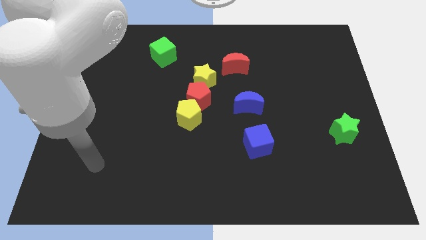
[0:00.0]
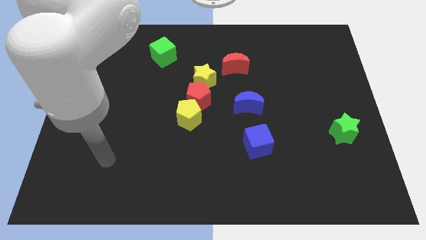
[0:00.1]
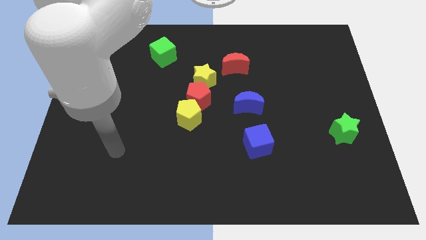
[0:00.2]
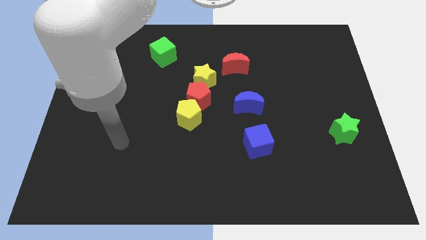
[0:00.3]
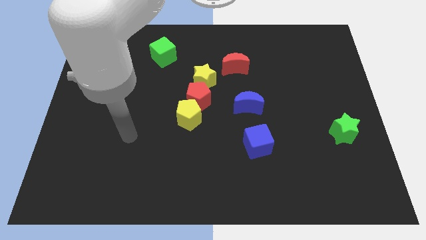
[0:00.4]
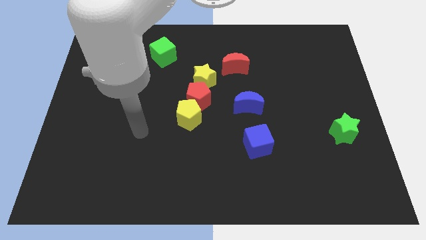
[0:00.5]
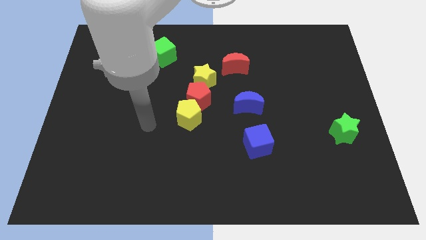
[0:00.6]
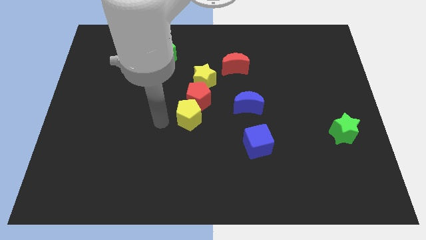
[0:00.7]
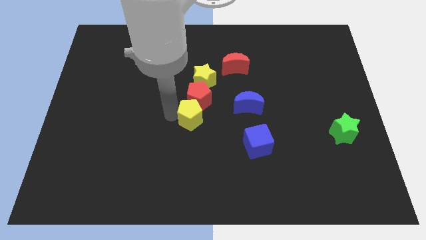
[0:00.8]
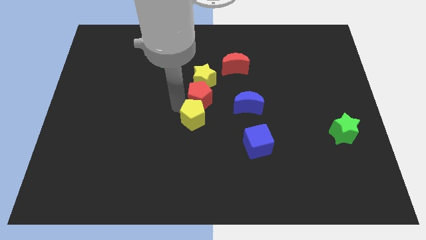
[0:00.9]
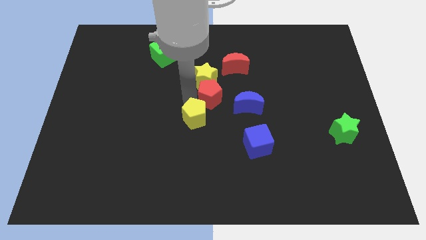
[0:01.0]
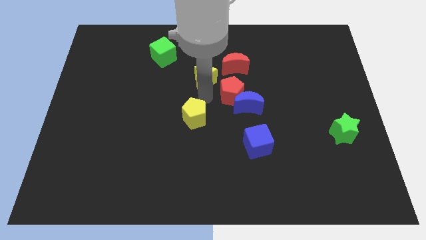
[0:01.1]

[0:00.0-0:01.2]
separate the yellow pentagon from the red pentagon

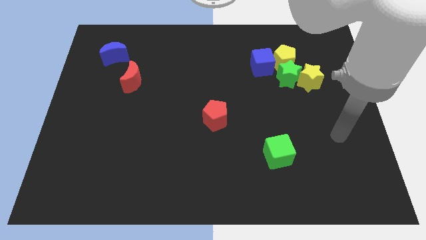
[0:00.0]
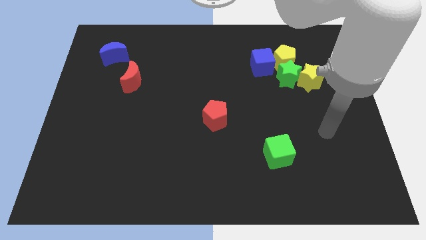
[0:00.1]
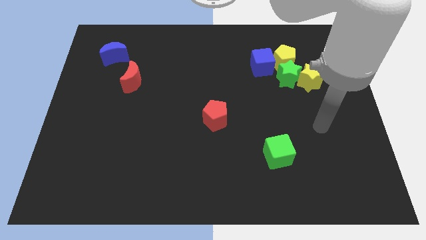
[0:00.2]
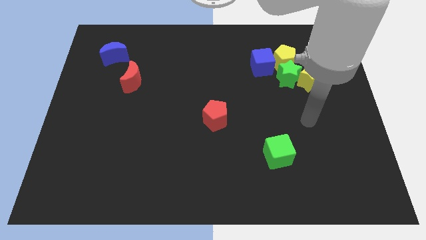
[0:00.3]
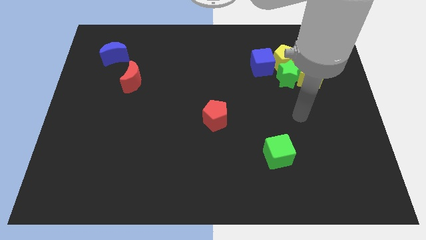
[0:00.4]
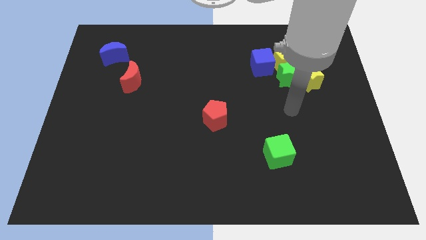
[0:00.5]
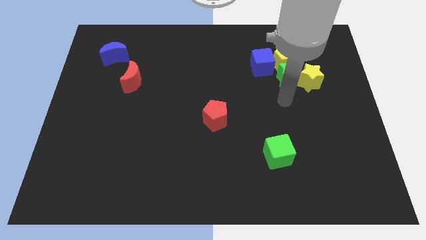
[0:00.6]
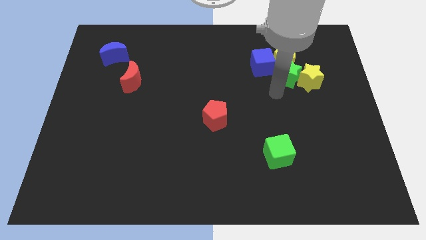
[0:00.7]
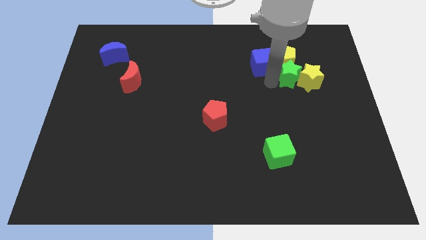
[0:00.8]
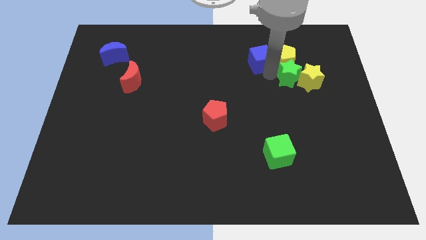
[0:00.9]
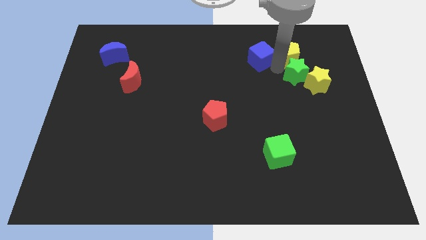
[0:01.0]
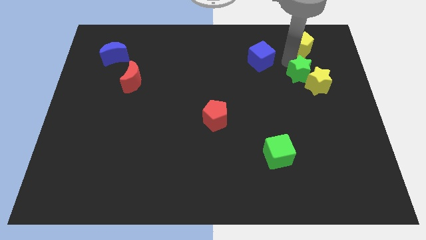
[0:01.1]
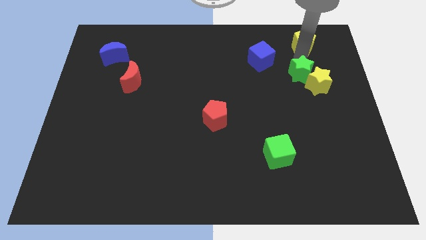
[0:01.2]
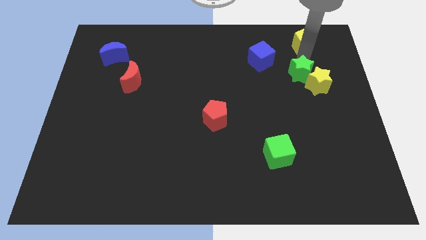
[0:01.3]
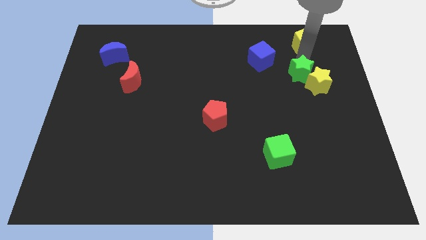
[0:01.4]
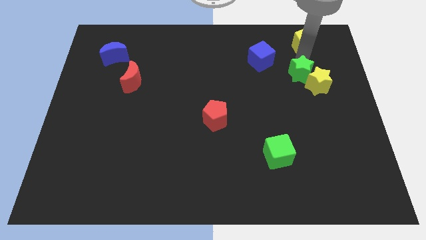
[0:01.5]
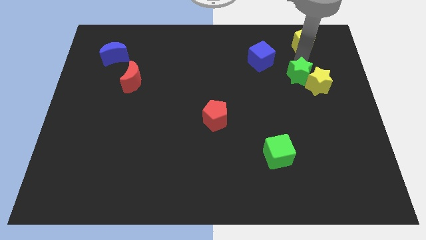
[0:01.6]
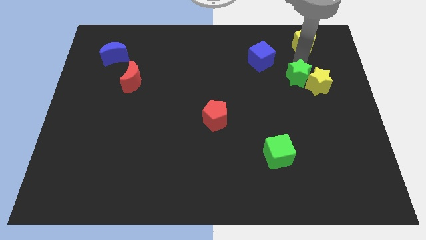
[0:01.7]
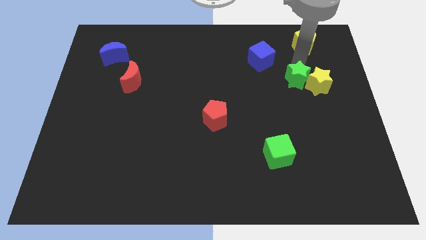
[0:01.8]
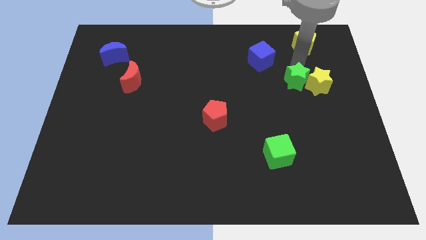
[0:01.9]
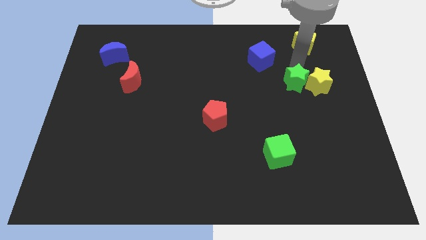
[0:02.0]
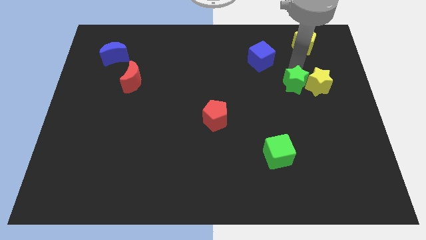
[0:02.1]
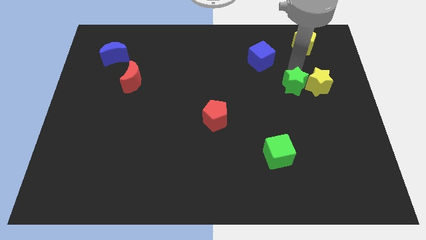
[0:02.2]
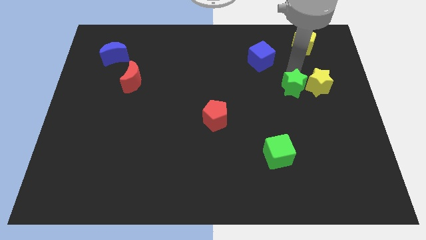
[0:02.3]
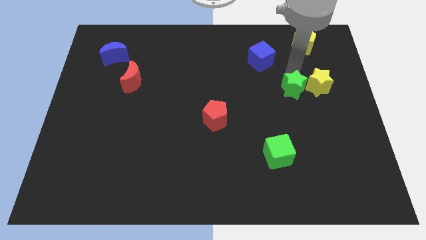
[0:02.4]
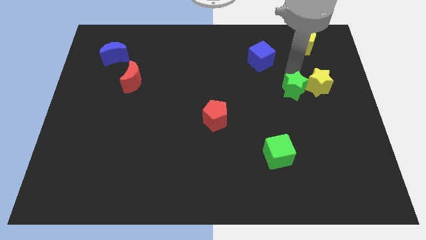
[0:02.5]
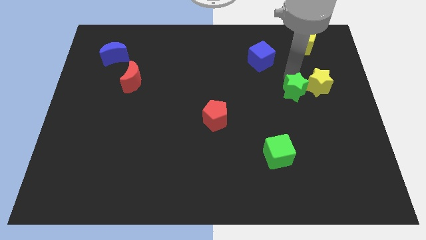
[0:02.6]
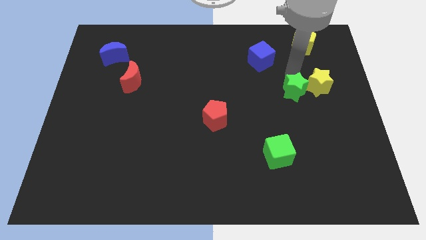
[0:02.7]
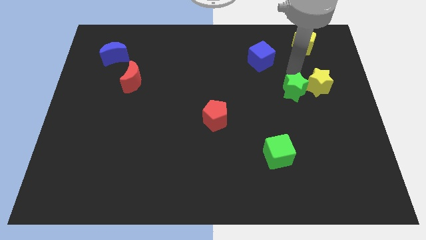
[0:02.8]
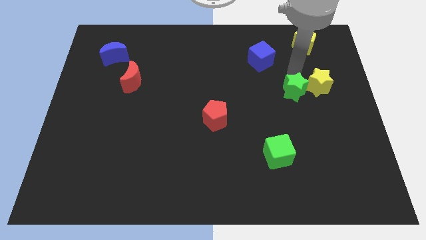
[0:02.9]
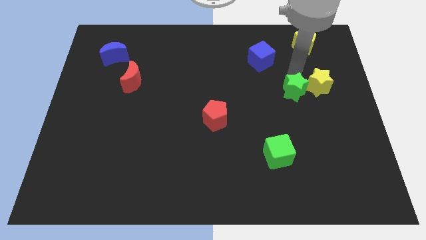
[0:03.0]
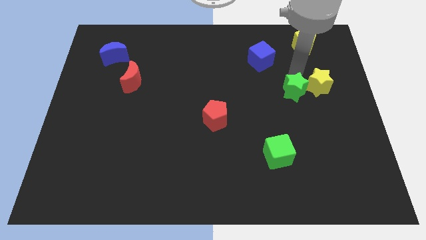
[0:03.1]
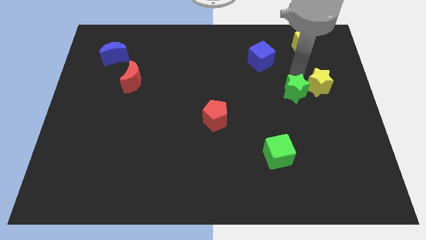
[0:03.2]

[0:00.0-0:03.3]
pull the green star apart from the clump

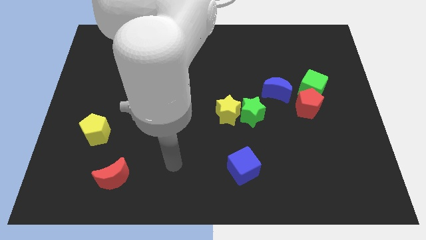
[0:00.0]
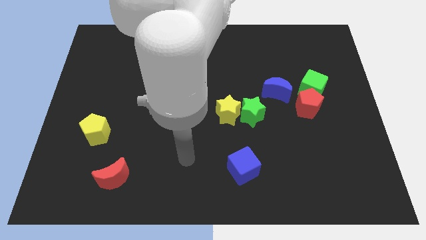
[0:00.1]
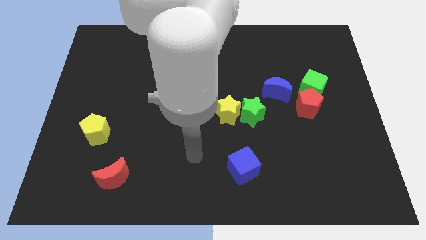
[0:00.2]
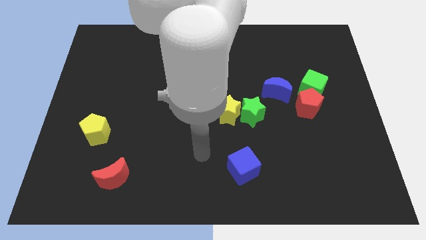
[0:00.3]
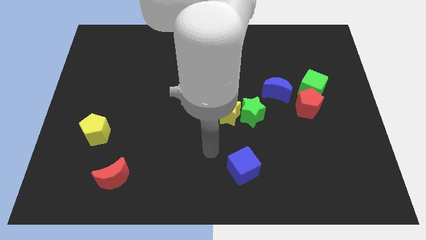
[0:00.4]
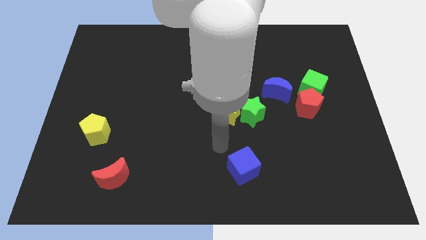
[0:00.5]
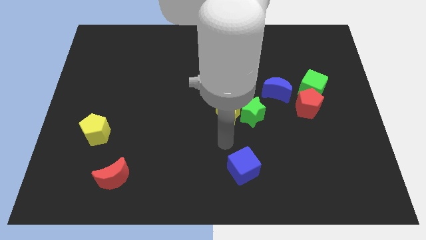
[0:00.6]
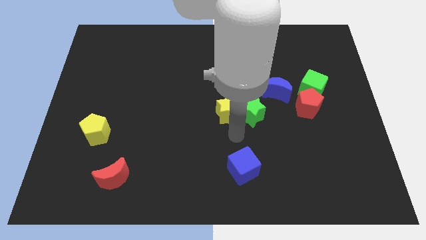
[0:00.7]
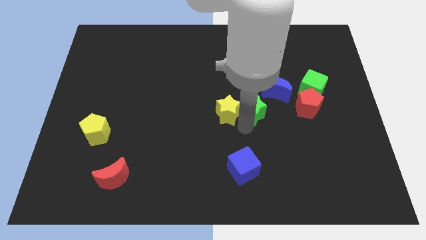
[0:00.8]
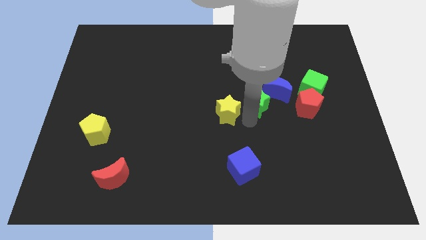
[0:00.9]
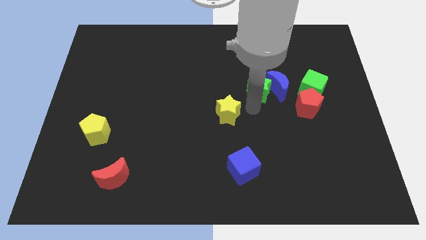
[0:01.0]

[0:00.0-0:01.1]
move the yellow star away from the green star

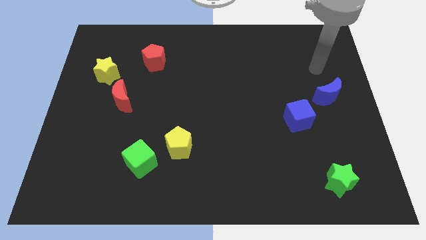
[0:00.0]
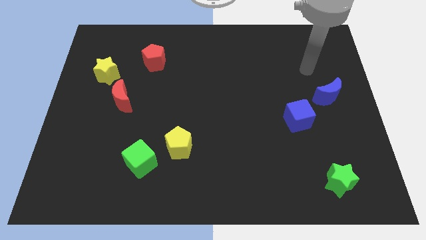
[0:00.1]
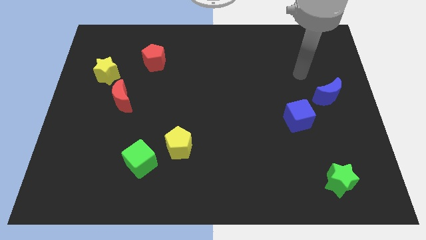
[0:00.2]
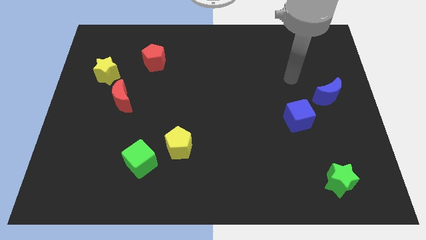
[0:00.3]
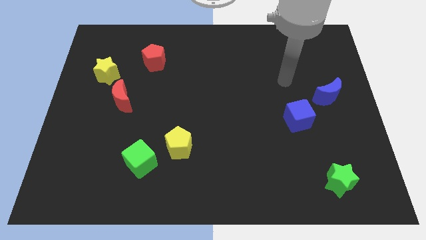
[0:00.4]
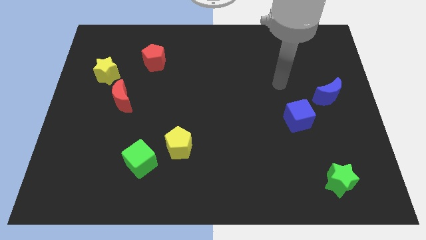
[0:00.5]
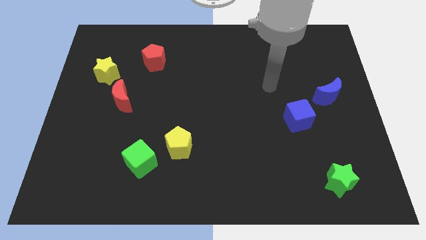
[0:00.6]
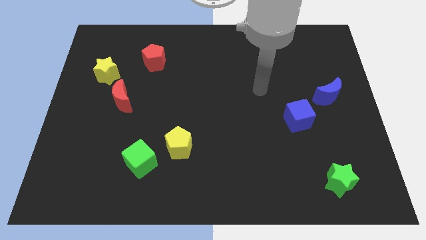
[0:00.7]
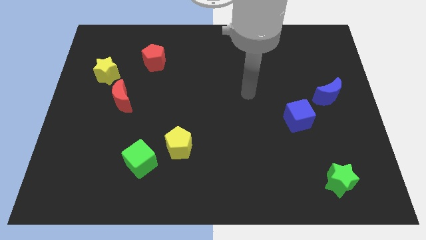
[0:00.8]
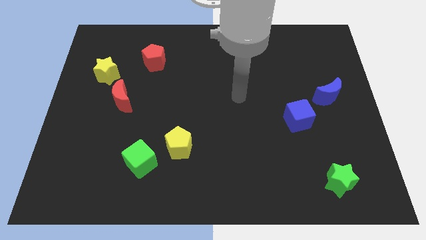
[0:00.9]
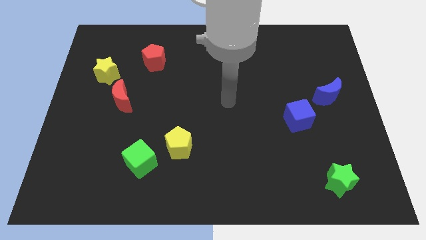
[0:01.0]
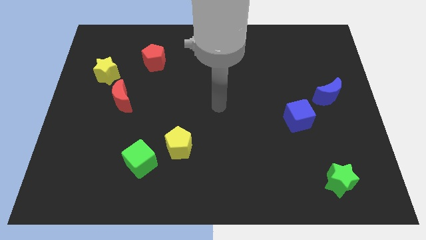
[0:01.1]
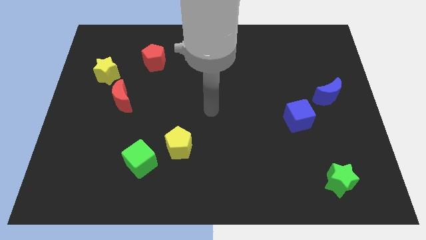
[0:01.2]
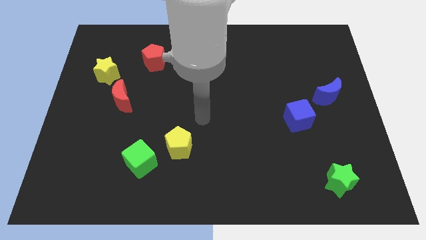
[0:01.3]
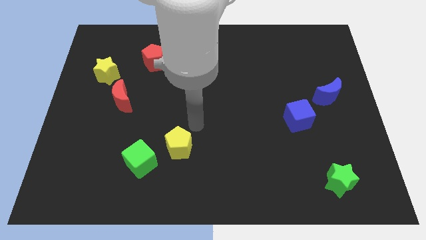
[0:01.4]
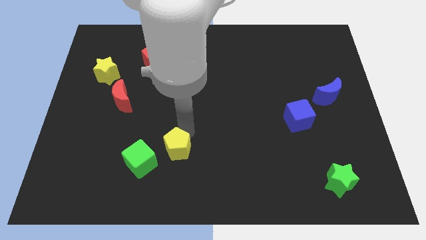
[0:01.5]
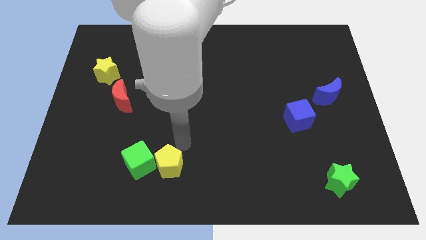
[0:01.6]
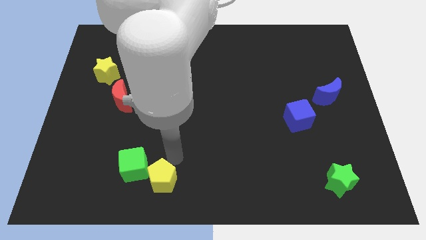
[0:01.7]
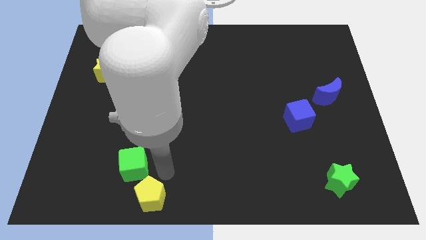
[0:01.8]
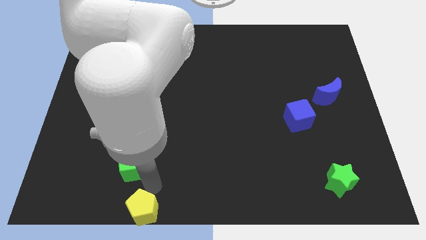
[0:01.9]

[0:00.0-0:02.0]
move the green cube away from the yellow pentagon

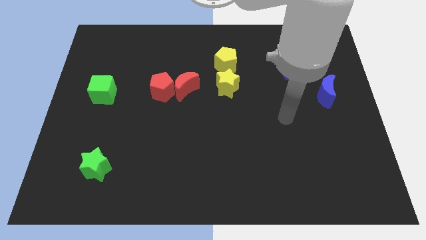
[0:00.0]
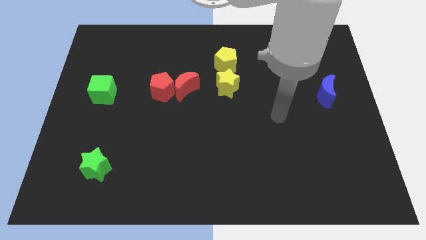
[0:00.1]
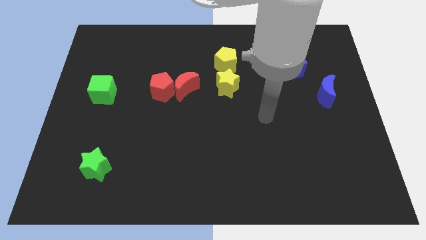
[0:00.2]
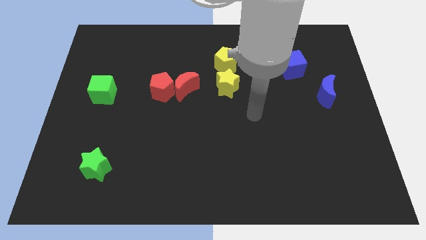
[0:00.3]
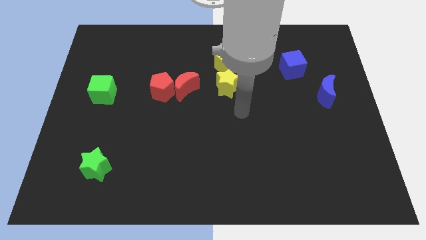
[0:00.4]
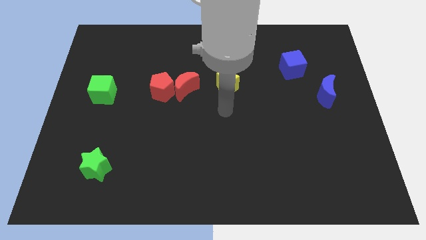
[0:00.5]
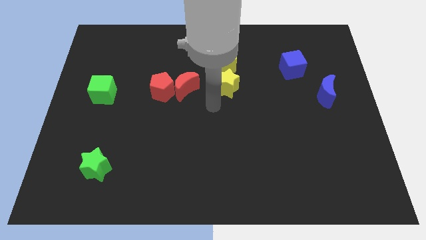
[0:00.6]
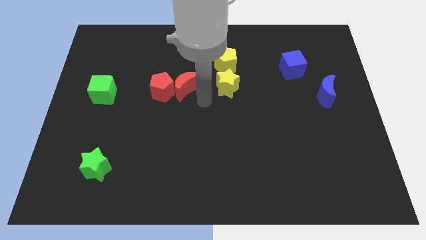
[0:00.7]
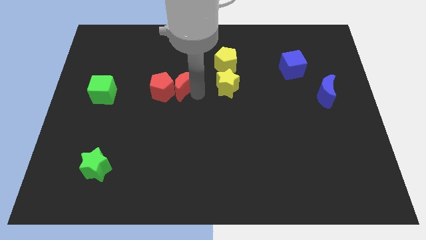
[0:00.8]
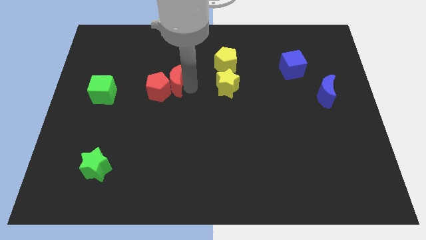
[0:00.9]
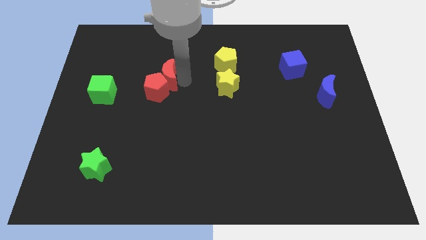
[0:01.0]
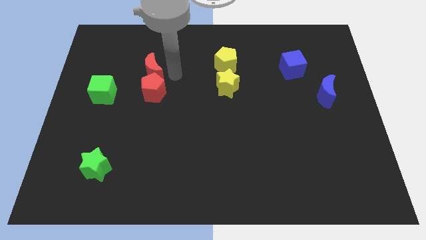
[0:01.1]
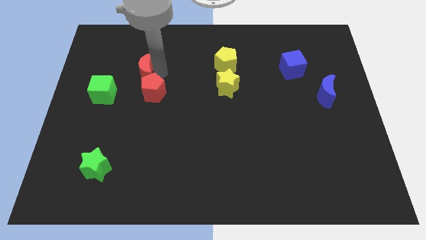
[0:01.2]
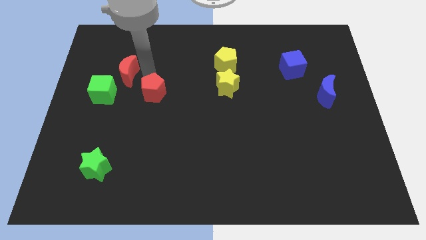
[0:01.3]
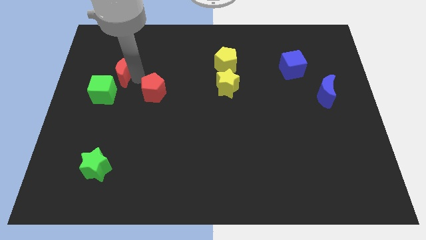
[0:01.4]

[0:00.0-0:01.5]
separate the red pentagon from the red moon

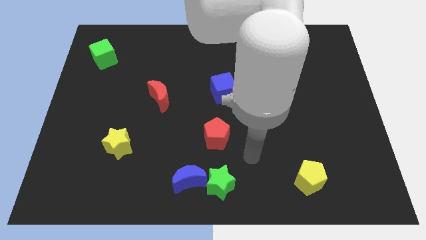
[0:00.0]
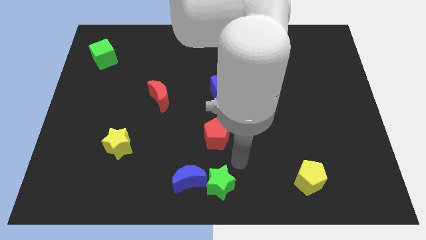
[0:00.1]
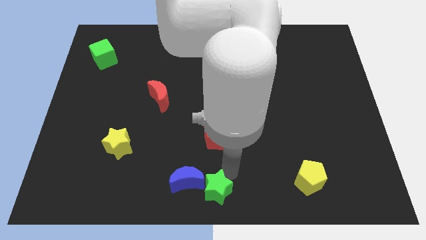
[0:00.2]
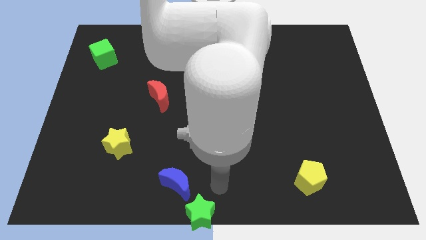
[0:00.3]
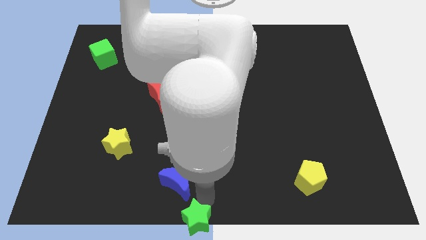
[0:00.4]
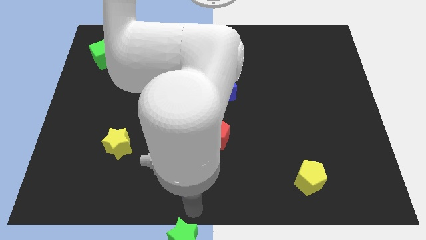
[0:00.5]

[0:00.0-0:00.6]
move the blue moon away from the green star
